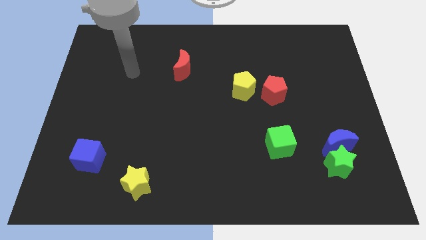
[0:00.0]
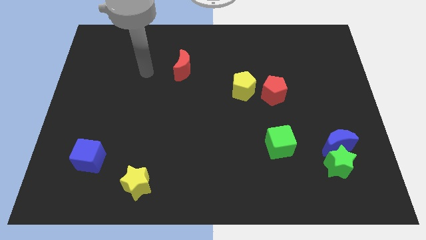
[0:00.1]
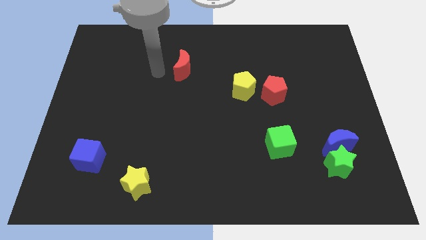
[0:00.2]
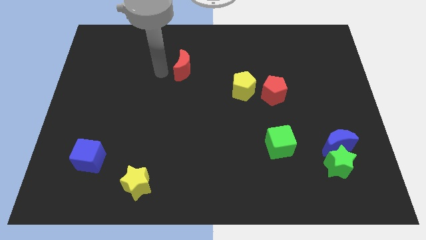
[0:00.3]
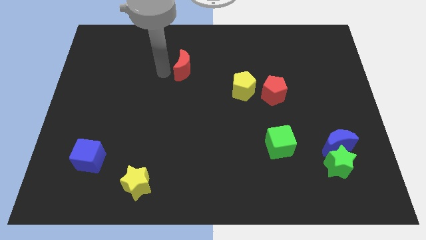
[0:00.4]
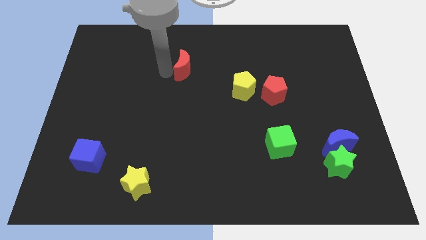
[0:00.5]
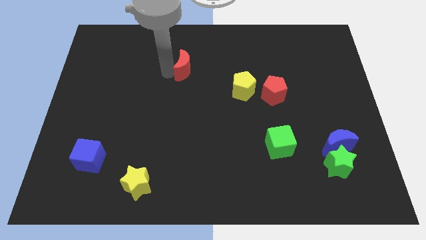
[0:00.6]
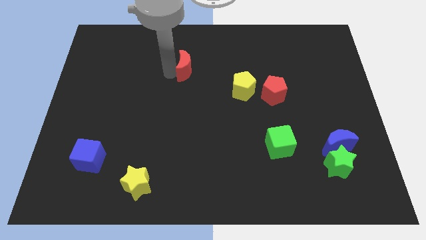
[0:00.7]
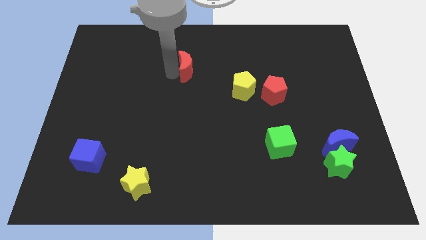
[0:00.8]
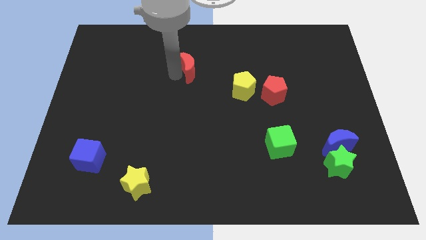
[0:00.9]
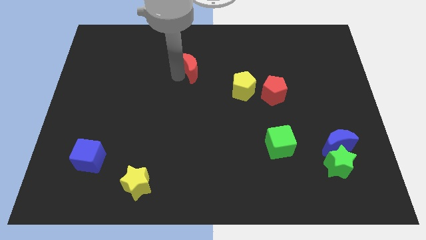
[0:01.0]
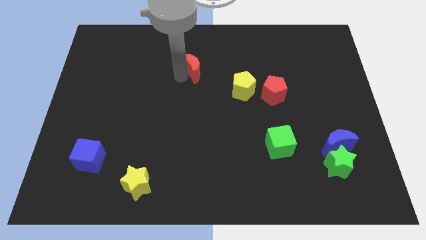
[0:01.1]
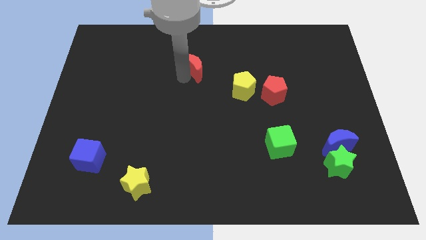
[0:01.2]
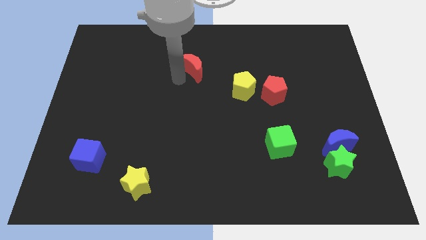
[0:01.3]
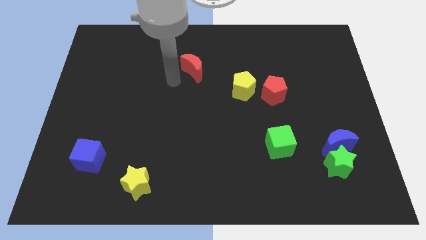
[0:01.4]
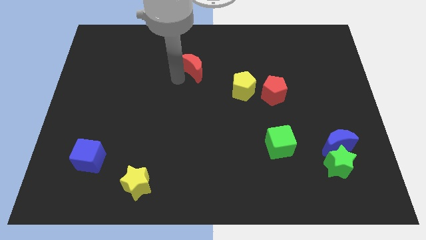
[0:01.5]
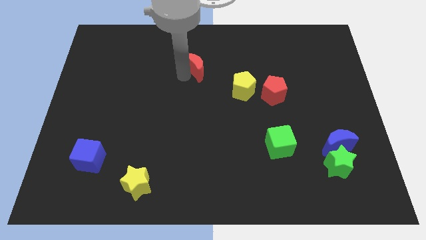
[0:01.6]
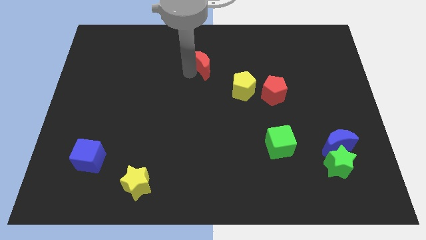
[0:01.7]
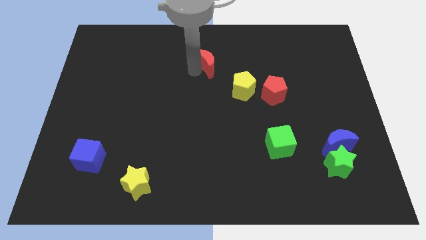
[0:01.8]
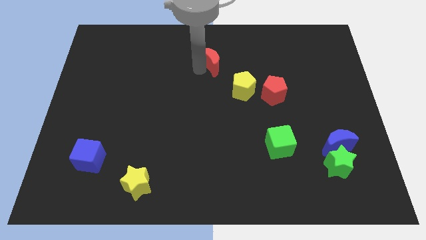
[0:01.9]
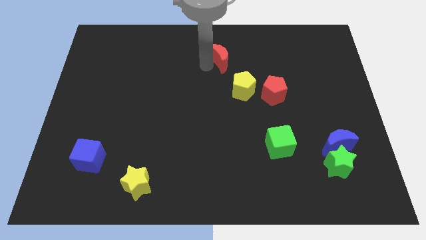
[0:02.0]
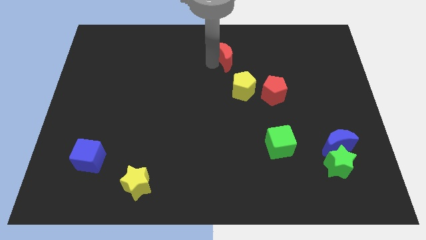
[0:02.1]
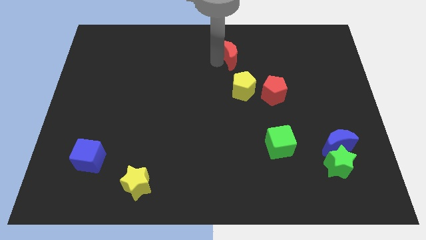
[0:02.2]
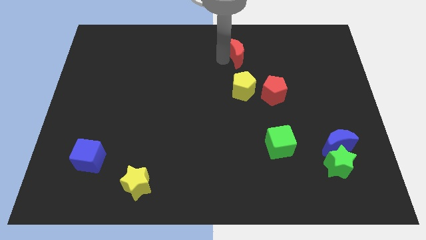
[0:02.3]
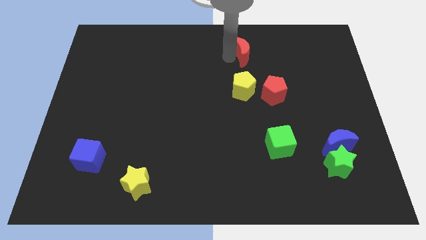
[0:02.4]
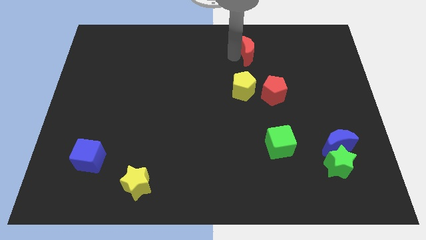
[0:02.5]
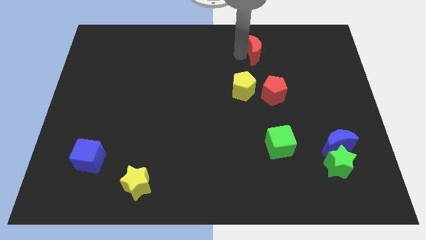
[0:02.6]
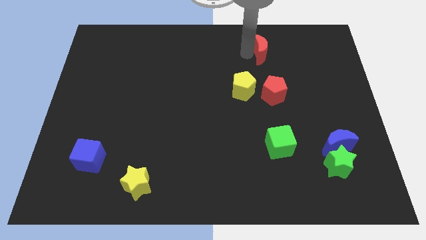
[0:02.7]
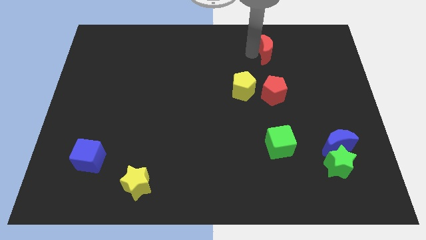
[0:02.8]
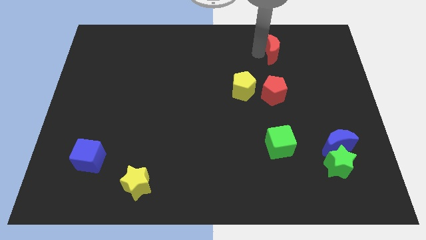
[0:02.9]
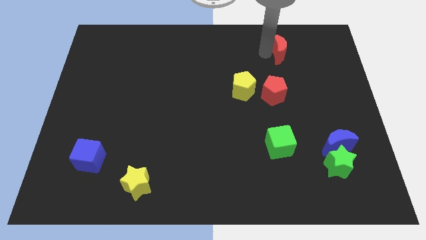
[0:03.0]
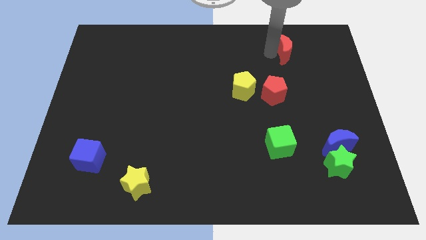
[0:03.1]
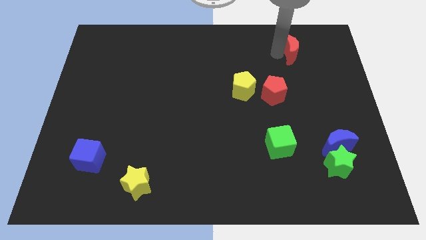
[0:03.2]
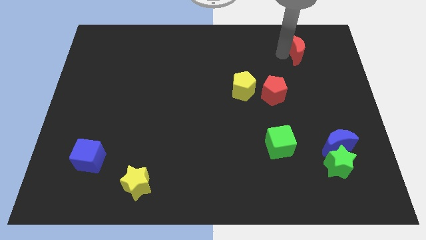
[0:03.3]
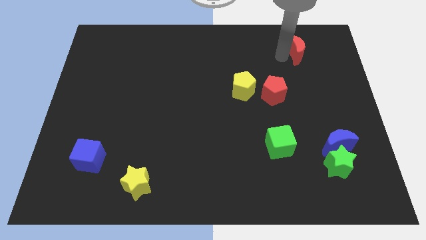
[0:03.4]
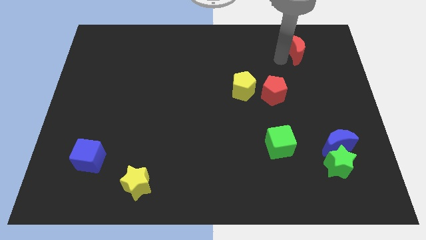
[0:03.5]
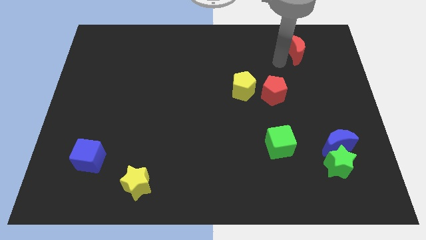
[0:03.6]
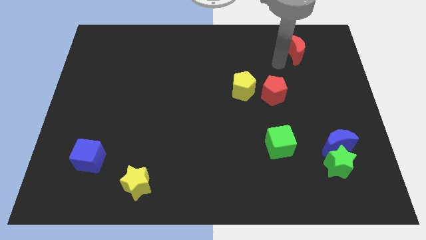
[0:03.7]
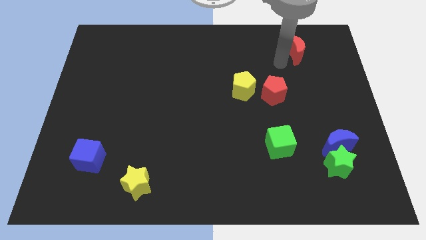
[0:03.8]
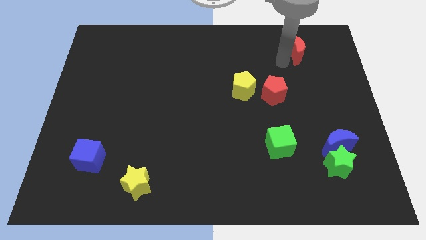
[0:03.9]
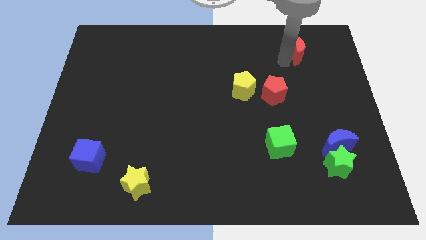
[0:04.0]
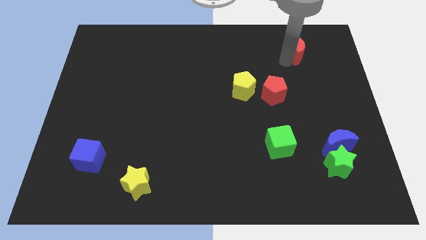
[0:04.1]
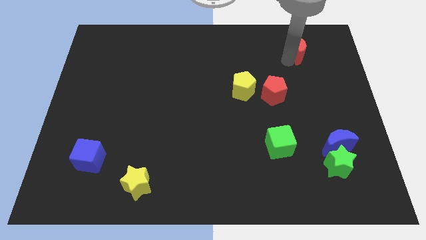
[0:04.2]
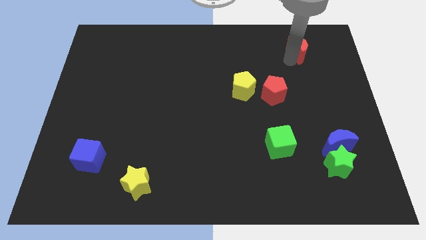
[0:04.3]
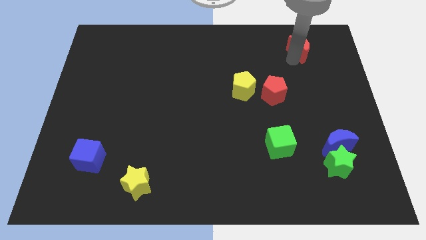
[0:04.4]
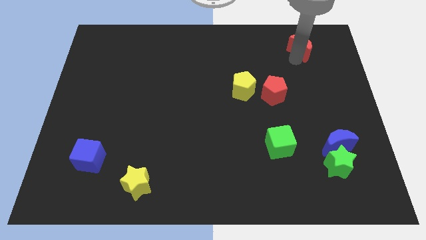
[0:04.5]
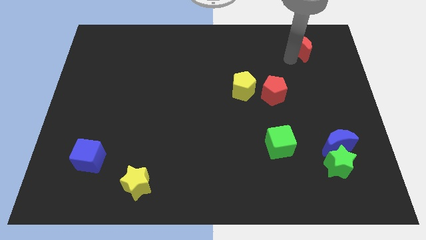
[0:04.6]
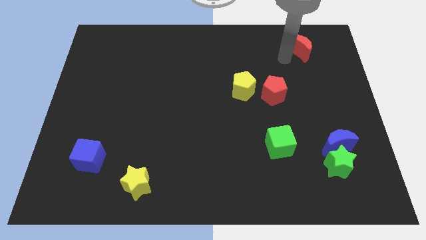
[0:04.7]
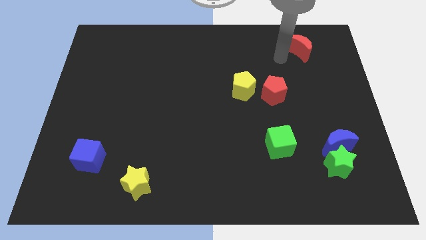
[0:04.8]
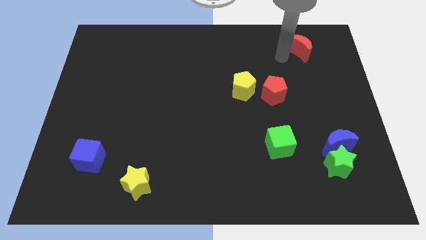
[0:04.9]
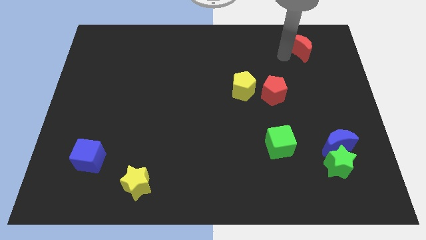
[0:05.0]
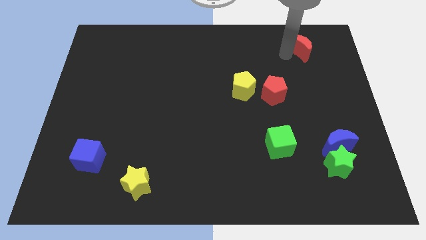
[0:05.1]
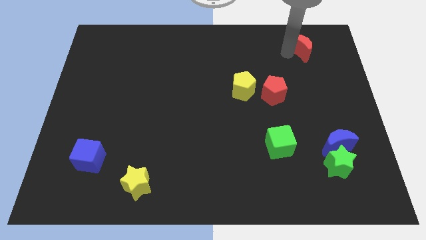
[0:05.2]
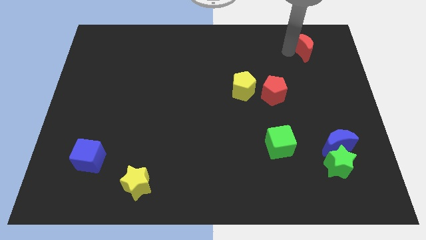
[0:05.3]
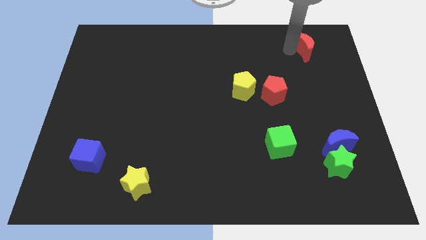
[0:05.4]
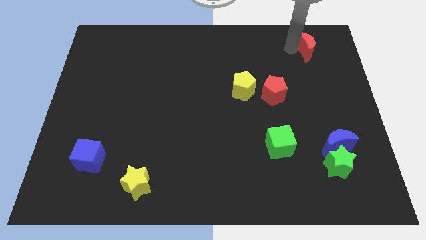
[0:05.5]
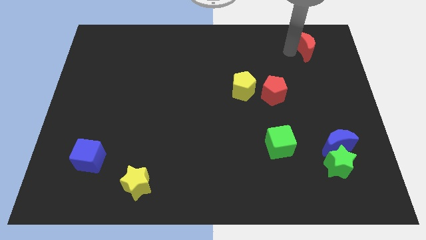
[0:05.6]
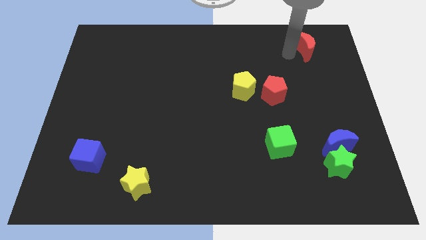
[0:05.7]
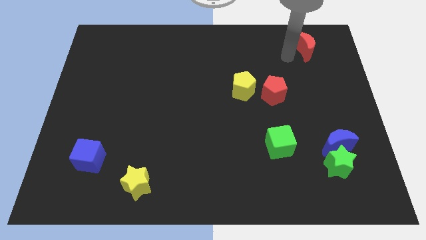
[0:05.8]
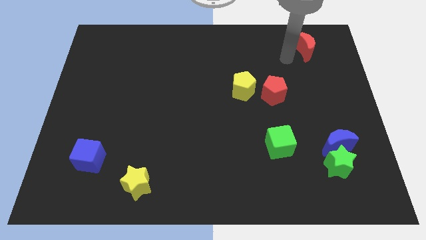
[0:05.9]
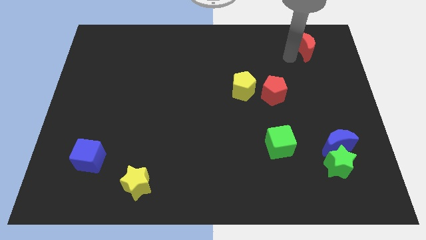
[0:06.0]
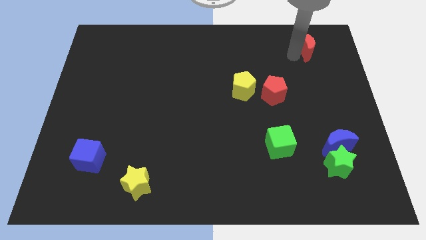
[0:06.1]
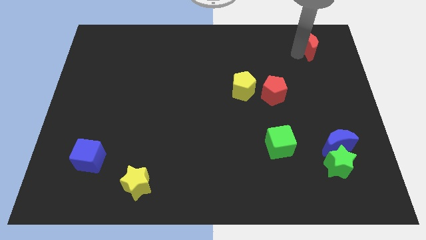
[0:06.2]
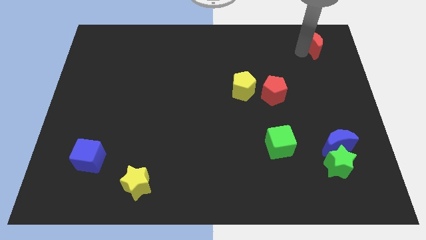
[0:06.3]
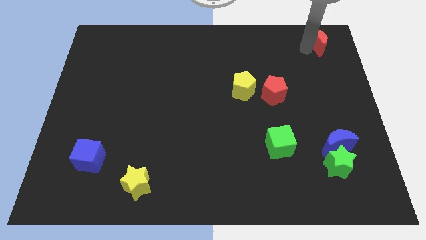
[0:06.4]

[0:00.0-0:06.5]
move the red moon to the top right corner

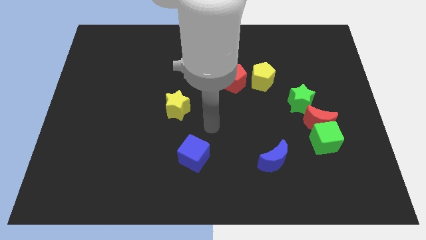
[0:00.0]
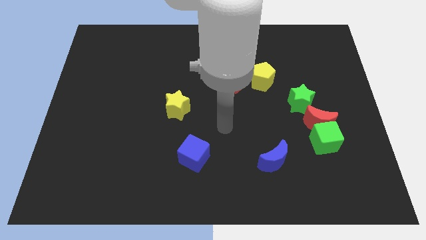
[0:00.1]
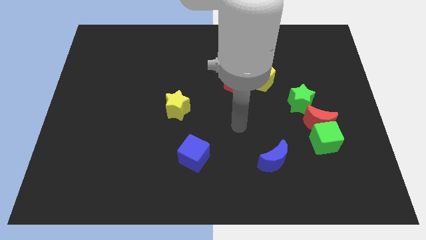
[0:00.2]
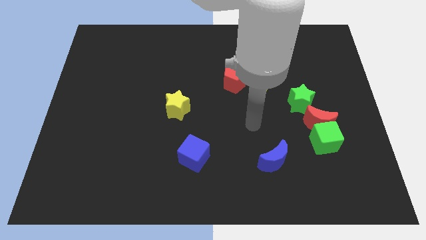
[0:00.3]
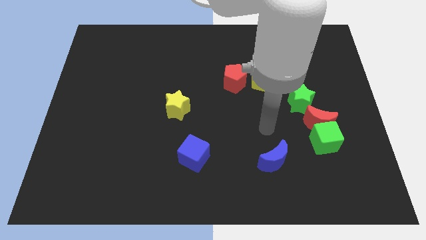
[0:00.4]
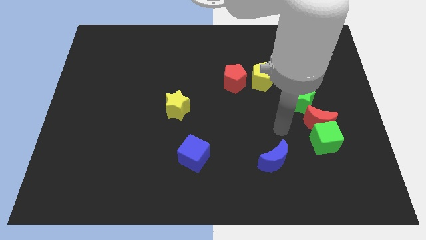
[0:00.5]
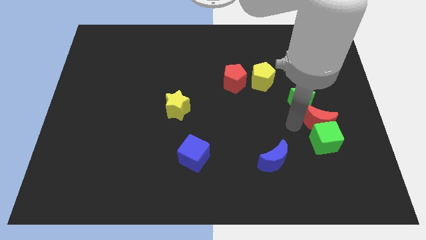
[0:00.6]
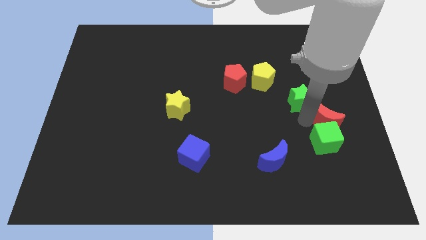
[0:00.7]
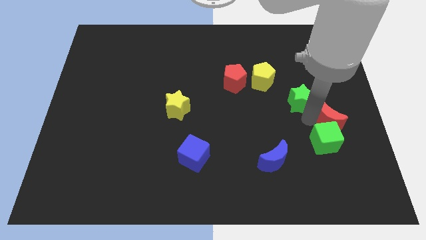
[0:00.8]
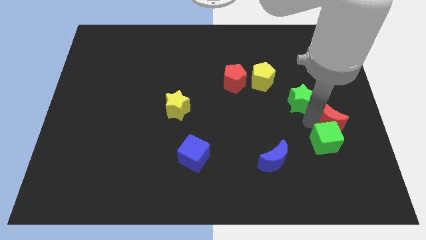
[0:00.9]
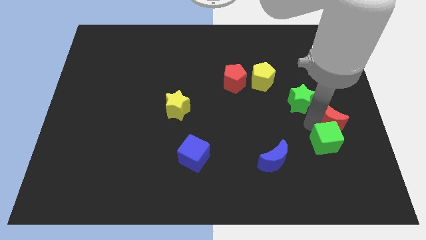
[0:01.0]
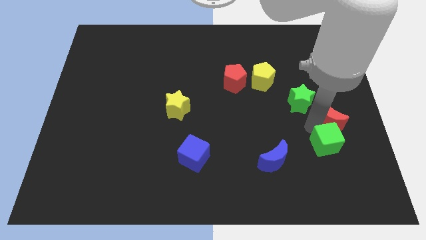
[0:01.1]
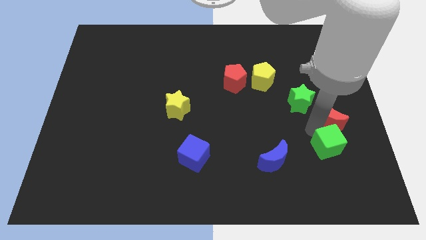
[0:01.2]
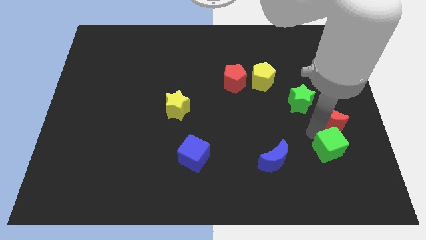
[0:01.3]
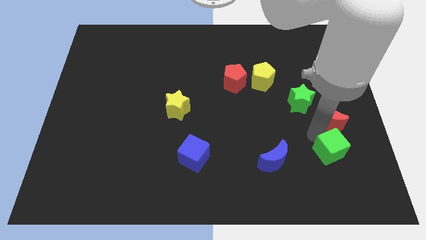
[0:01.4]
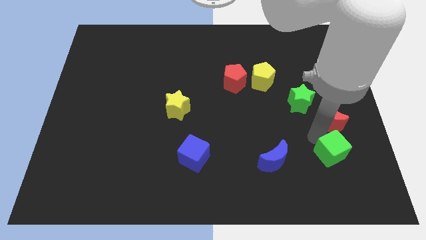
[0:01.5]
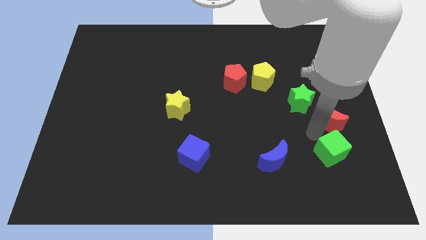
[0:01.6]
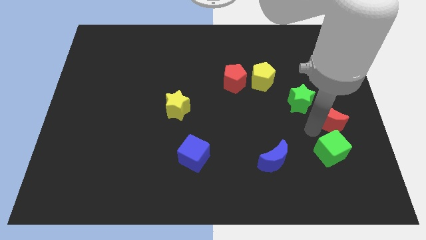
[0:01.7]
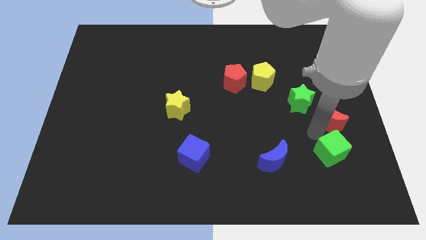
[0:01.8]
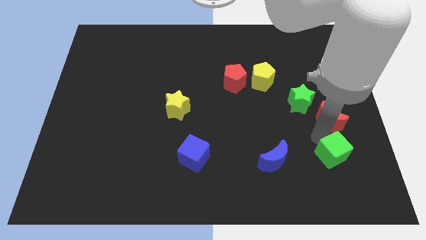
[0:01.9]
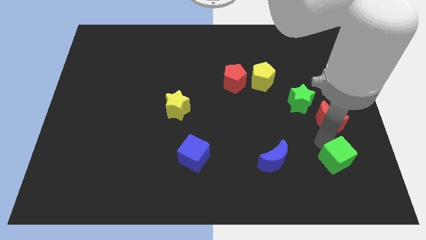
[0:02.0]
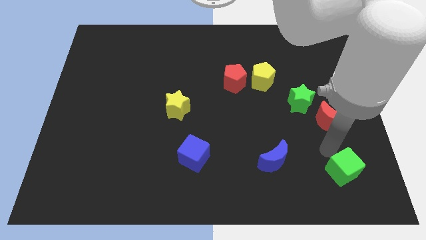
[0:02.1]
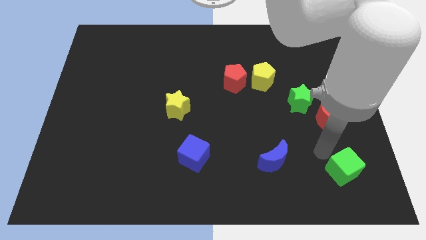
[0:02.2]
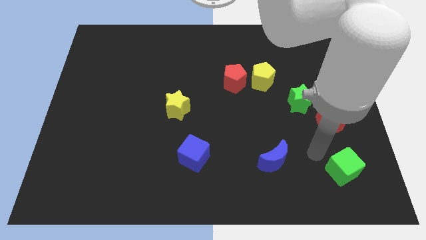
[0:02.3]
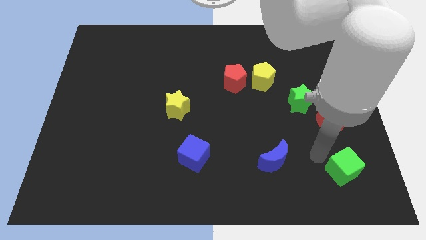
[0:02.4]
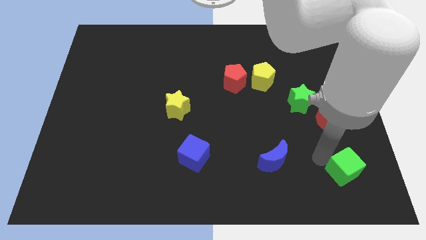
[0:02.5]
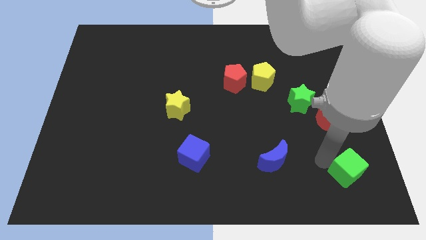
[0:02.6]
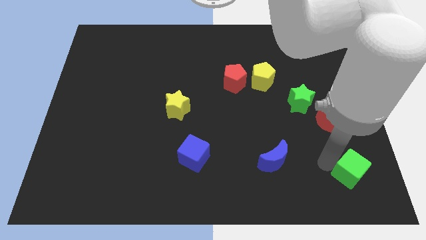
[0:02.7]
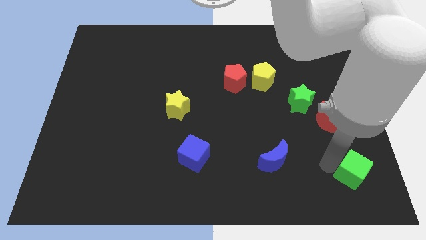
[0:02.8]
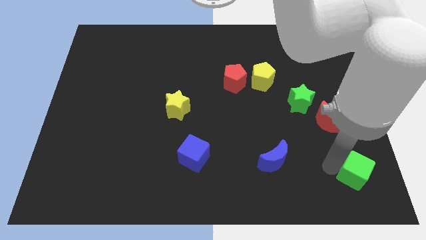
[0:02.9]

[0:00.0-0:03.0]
push the green cube to the bottom right of the board
